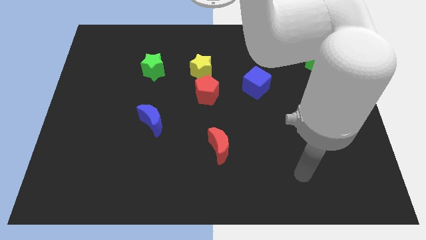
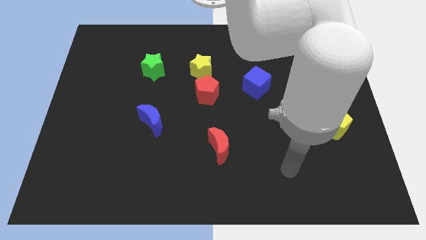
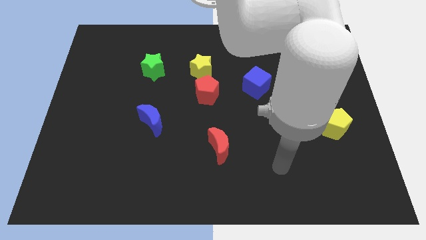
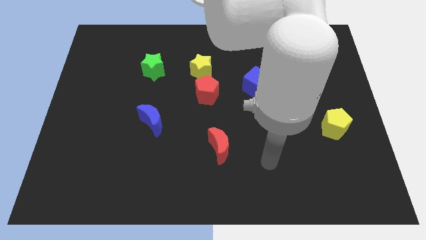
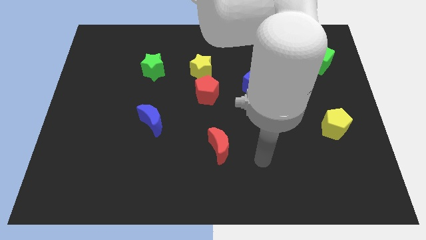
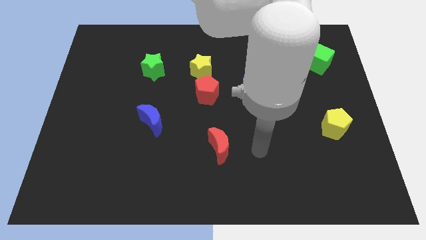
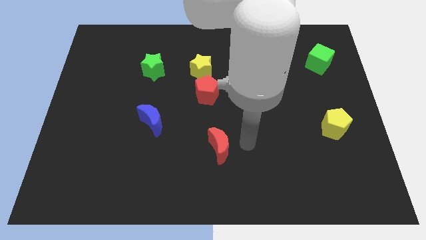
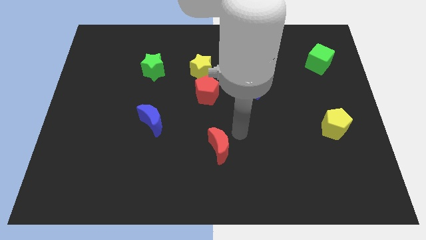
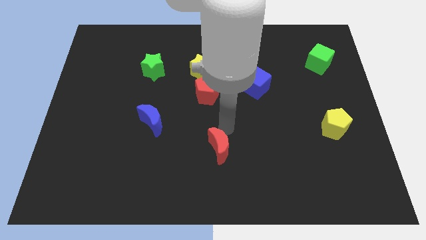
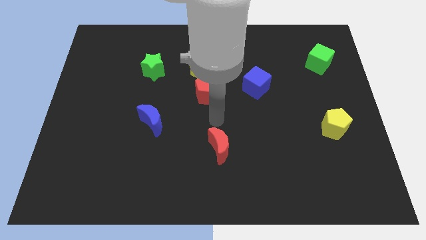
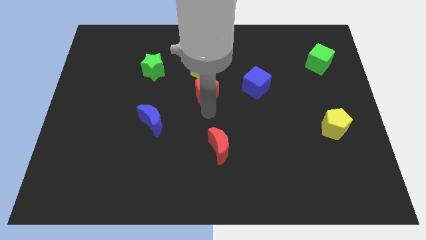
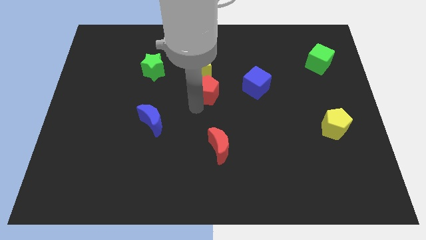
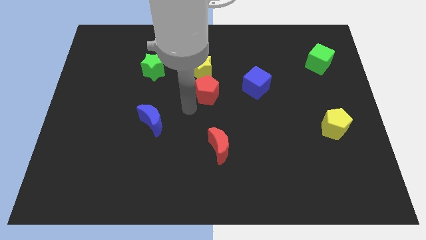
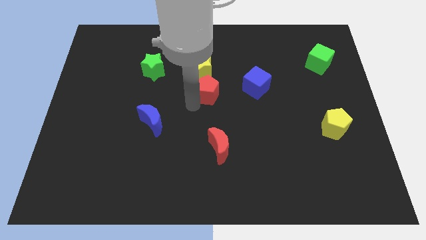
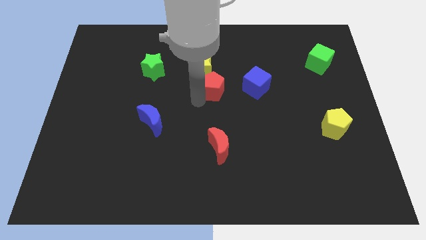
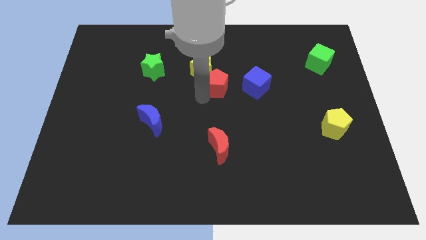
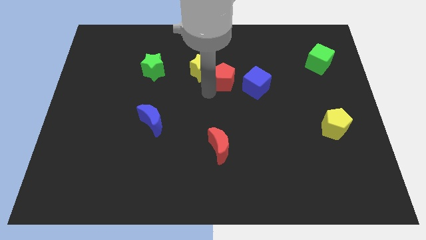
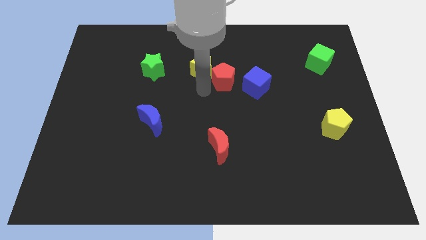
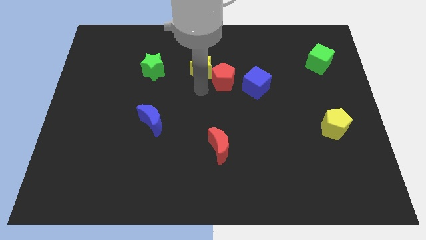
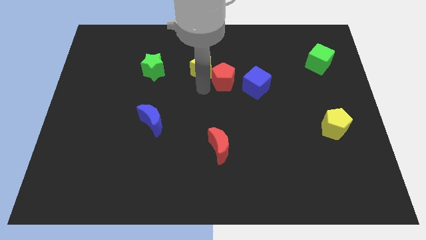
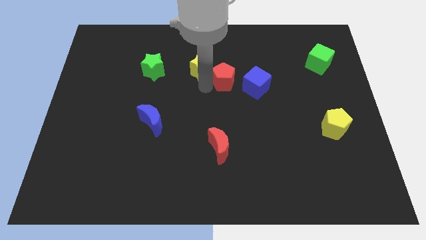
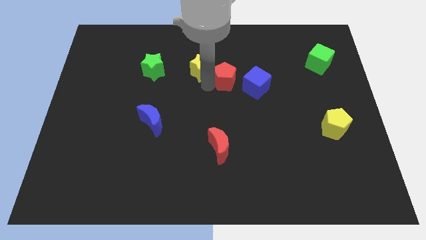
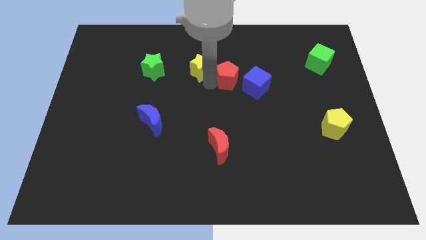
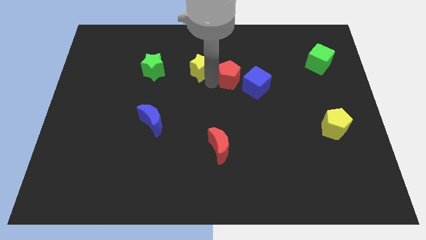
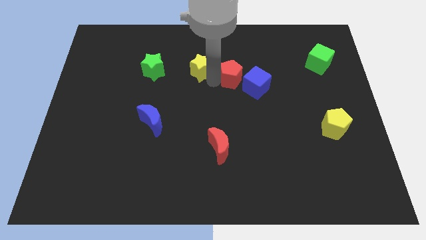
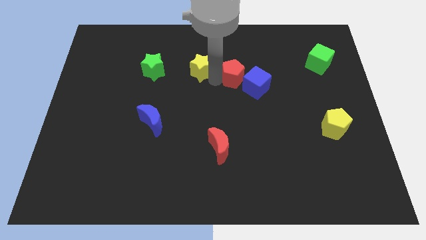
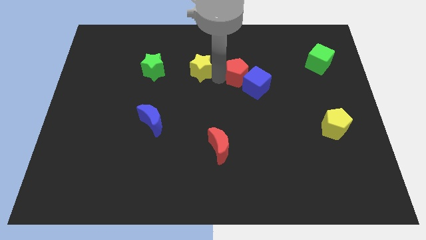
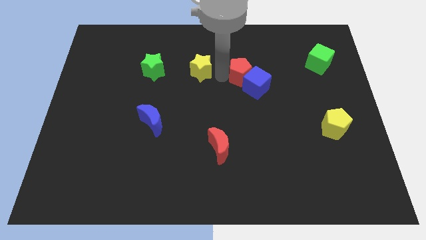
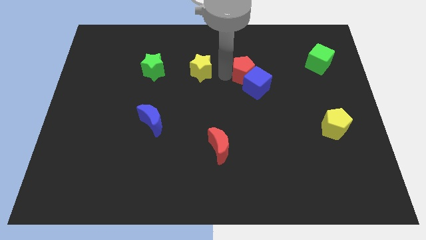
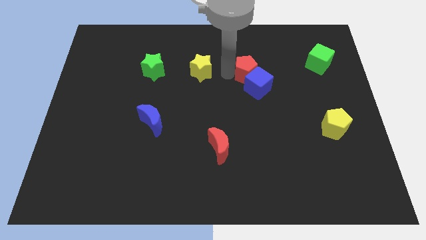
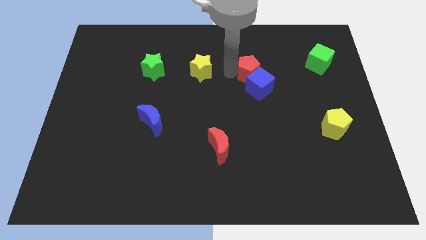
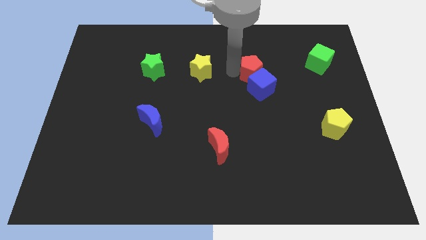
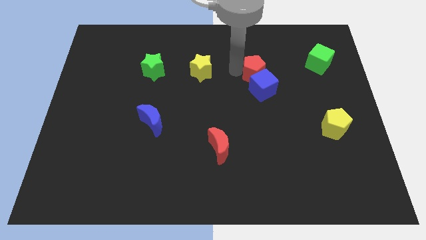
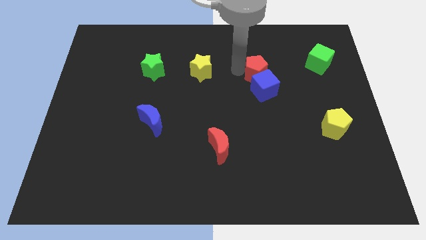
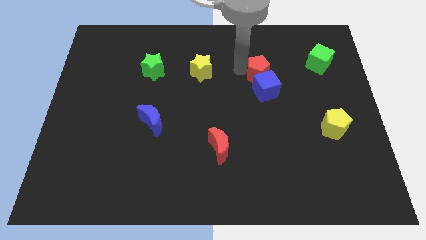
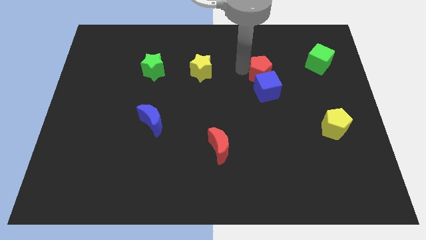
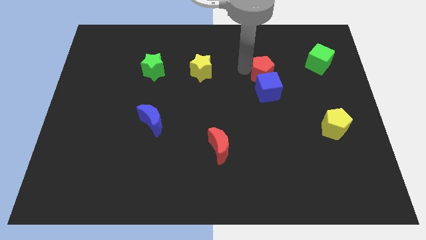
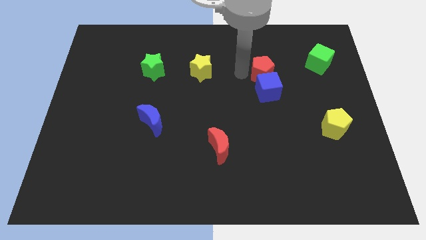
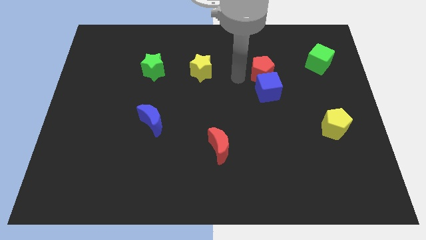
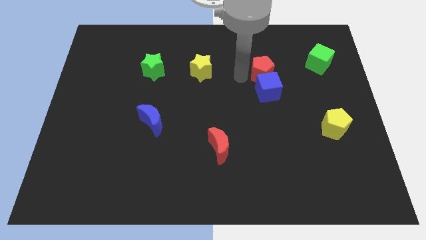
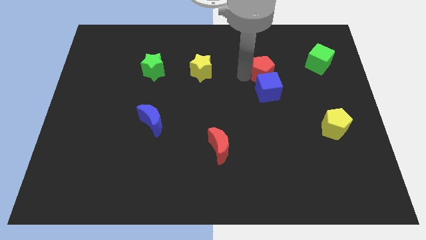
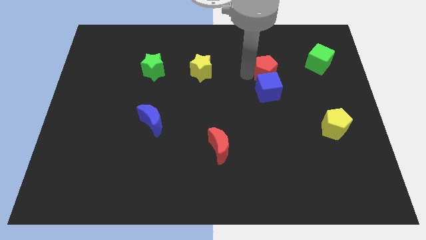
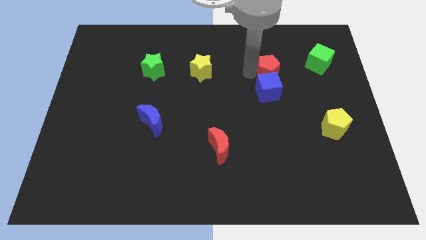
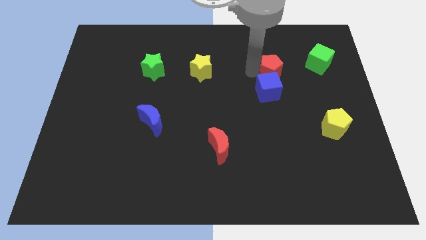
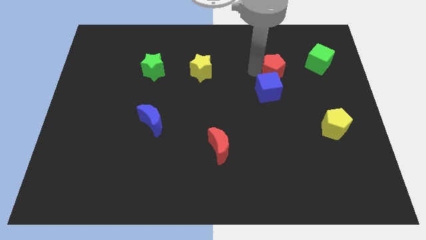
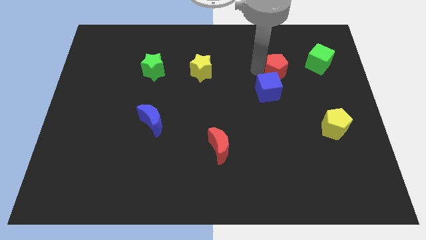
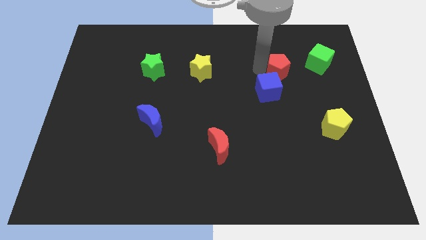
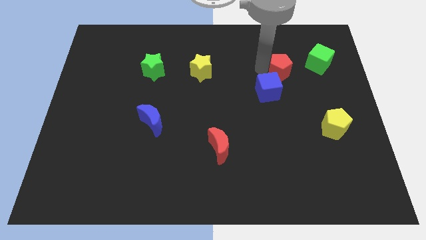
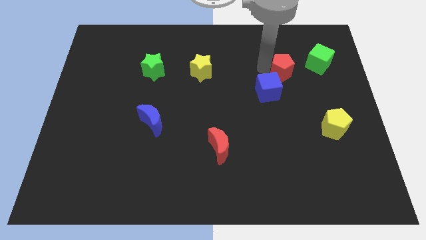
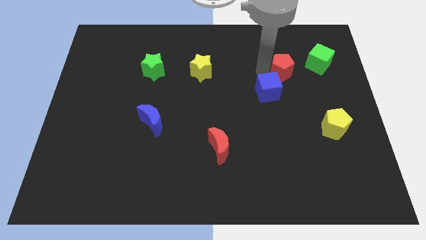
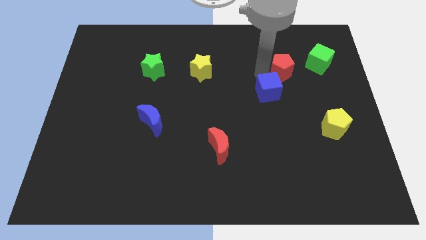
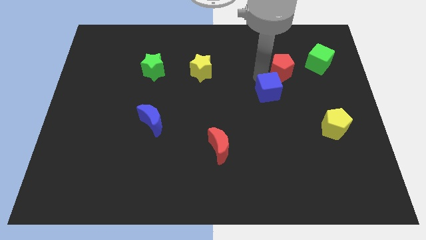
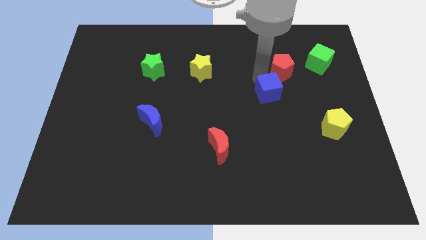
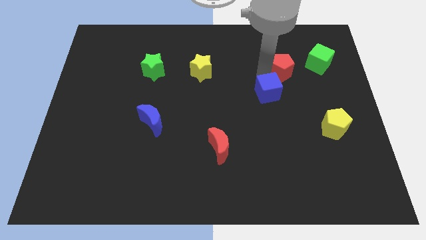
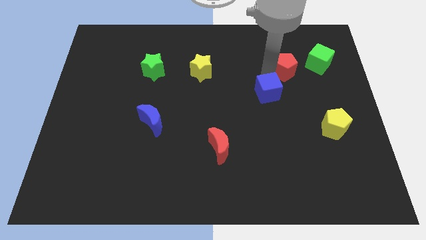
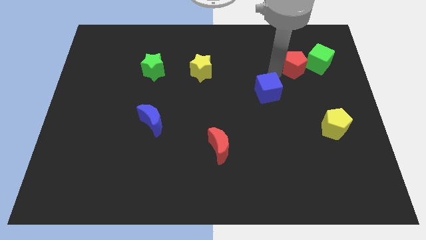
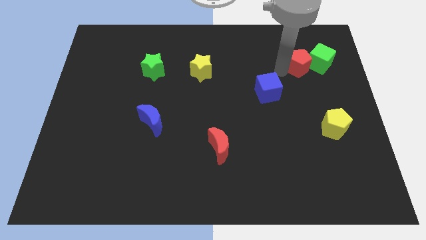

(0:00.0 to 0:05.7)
push the red pentagon next to the green cube

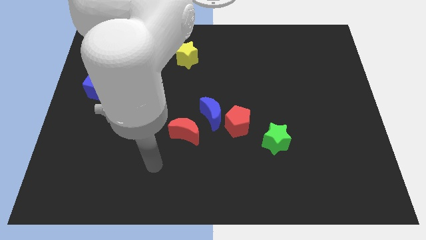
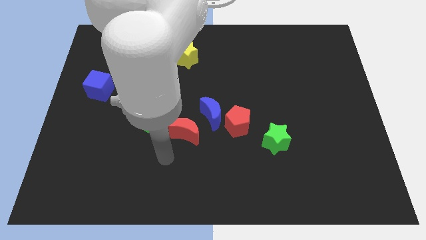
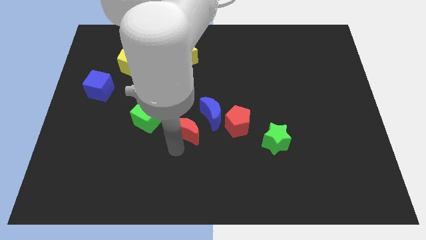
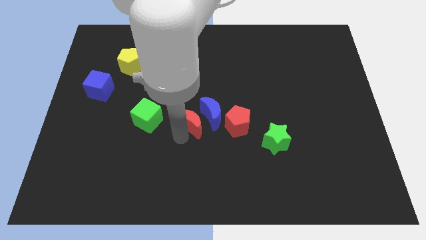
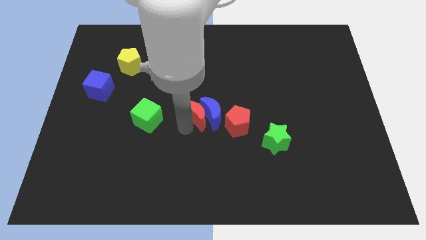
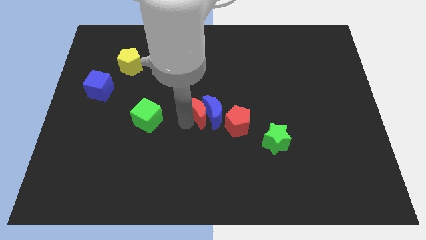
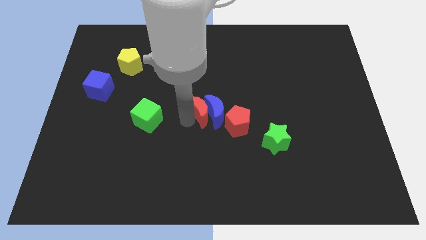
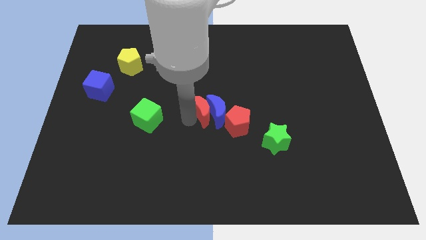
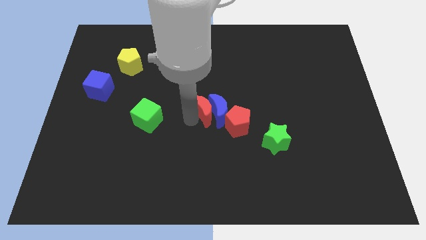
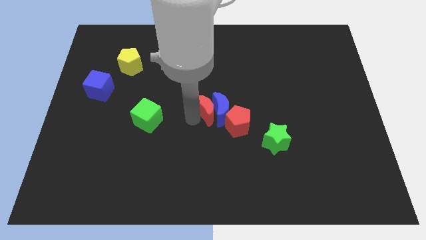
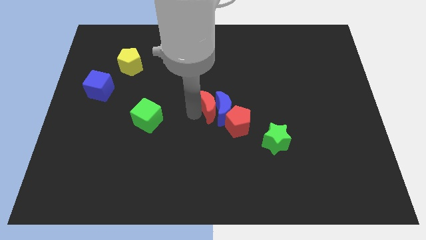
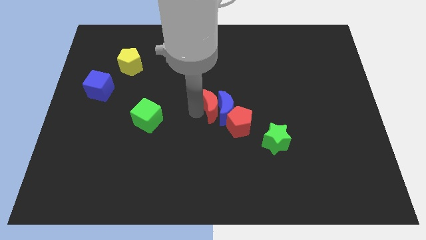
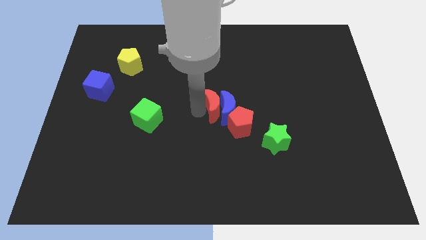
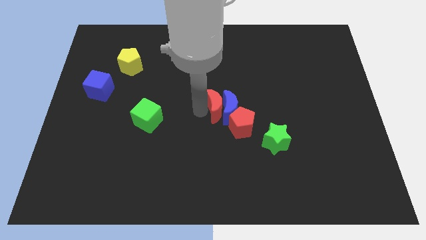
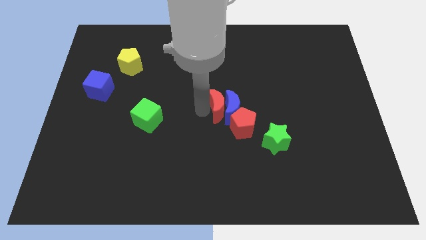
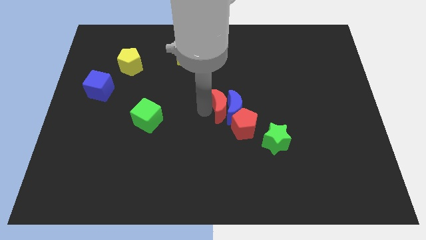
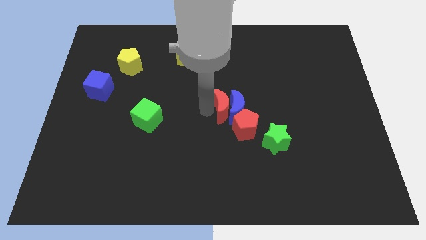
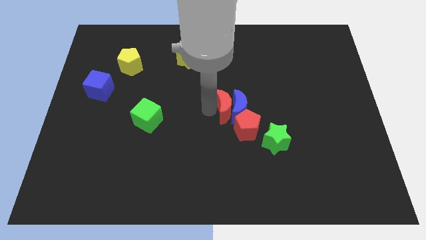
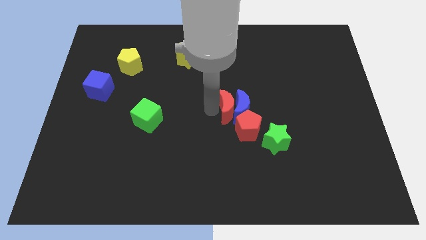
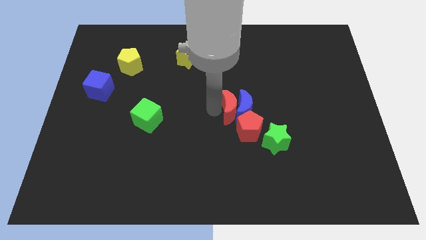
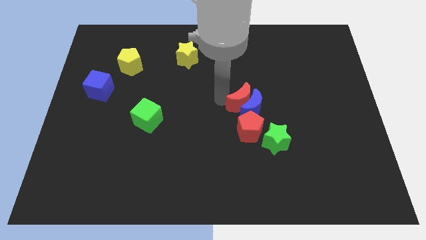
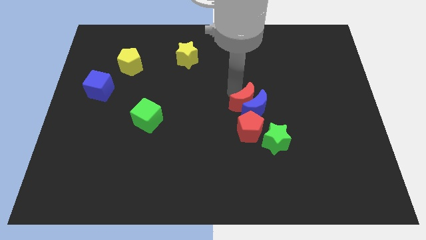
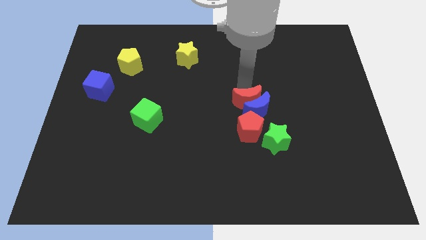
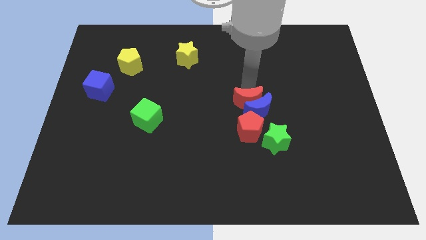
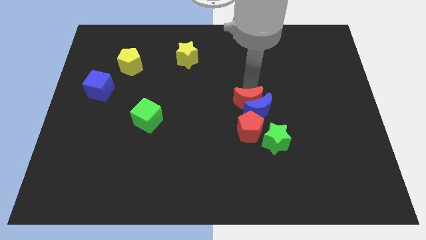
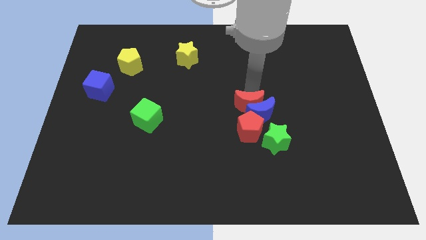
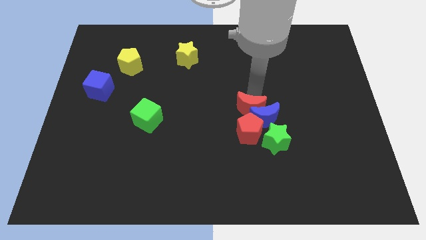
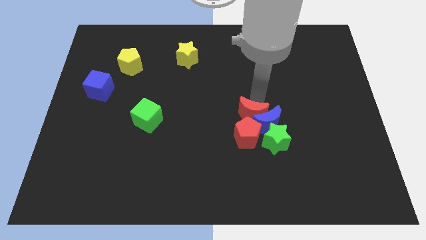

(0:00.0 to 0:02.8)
slide the blue moon close to the green star
